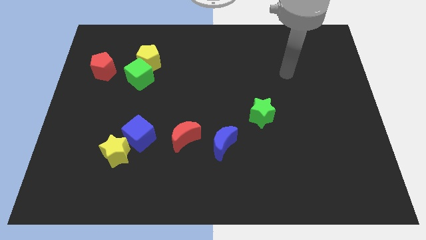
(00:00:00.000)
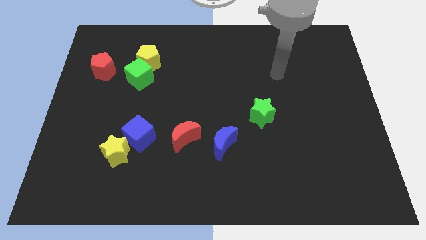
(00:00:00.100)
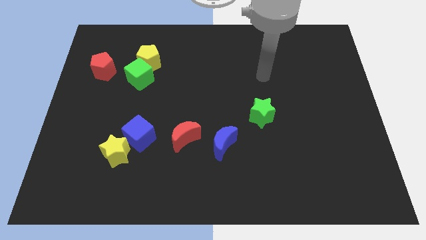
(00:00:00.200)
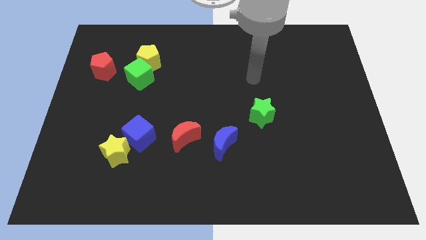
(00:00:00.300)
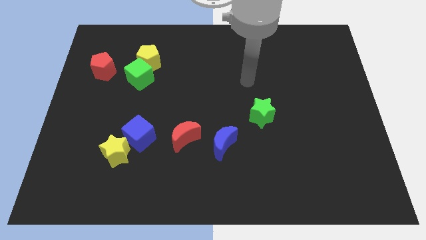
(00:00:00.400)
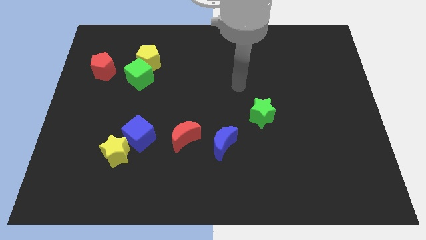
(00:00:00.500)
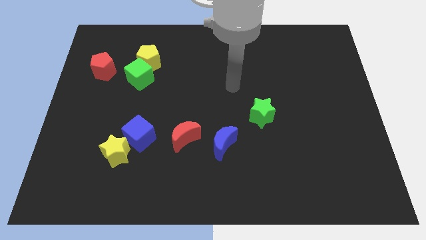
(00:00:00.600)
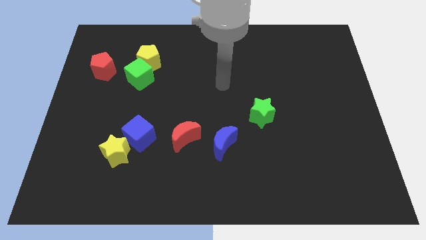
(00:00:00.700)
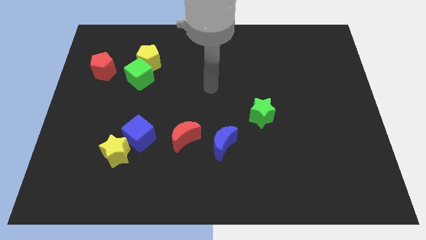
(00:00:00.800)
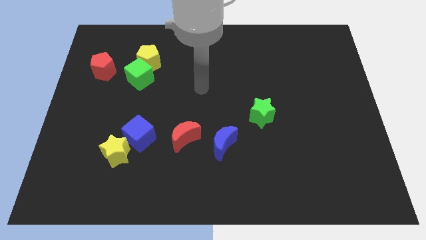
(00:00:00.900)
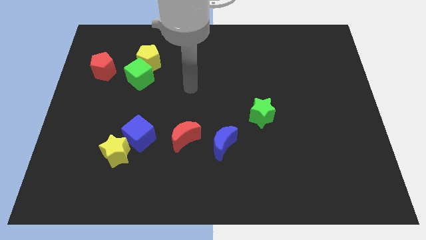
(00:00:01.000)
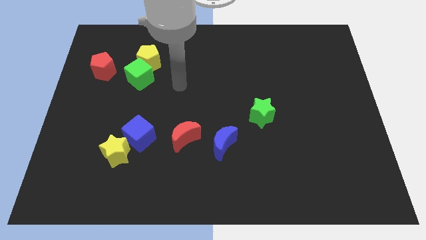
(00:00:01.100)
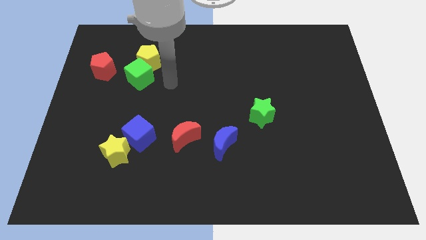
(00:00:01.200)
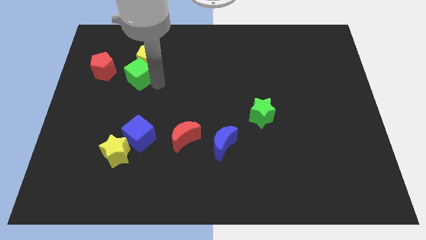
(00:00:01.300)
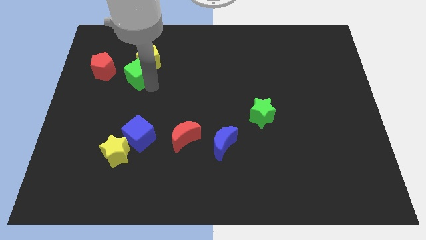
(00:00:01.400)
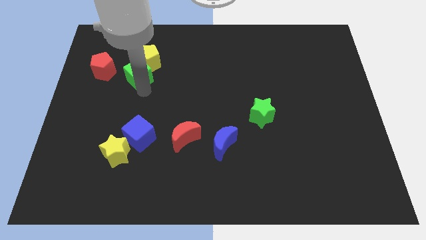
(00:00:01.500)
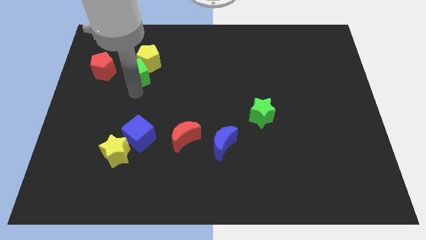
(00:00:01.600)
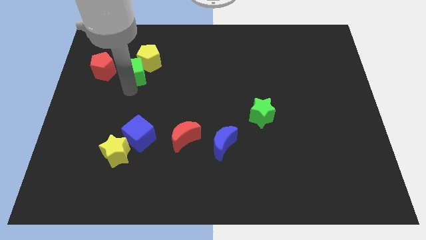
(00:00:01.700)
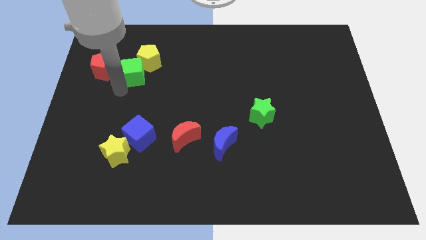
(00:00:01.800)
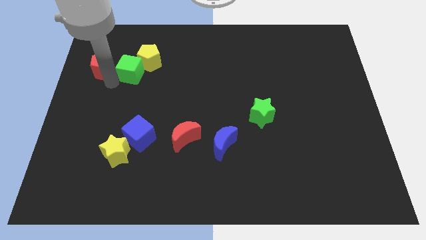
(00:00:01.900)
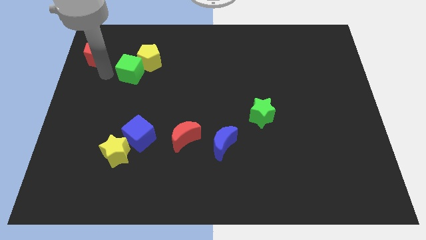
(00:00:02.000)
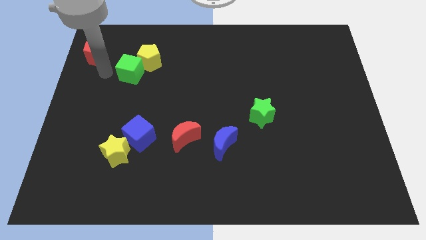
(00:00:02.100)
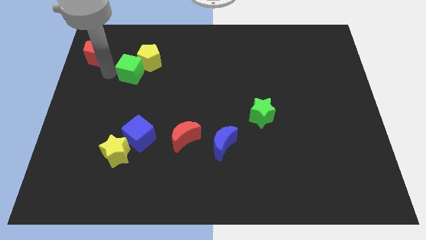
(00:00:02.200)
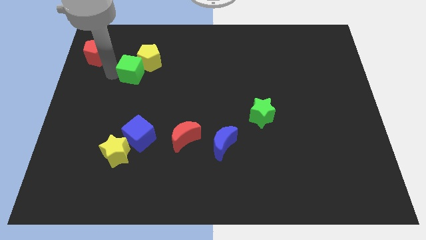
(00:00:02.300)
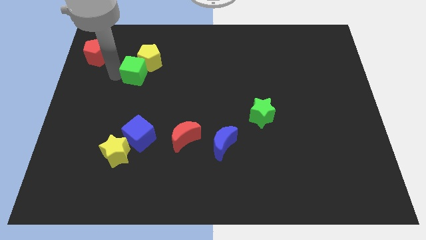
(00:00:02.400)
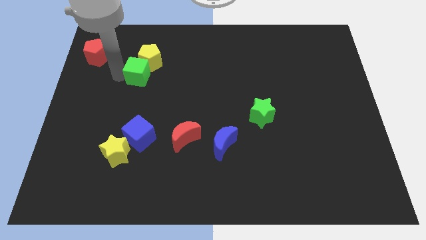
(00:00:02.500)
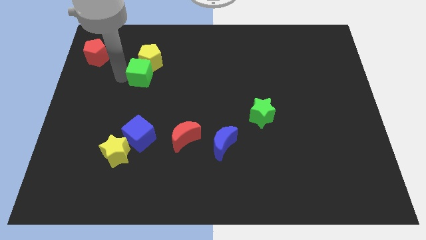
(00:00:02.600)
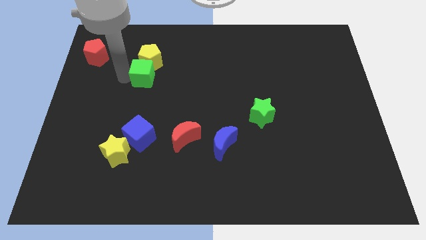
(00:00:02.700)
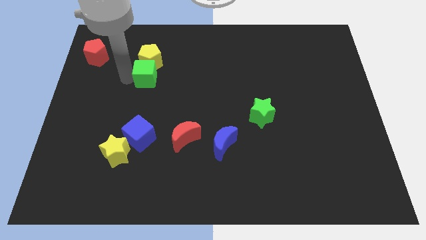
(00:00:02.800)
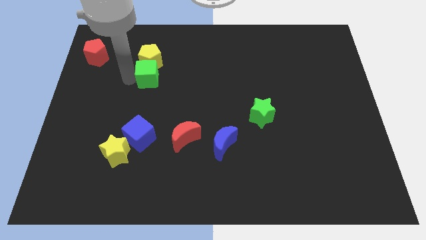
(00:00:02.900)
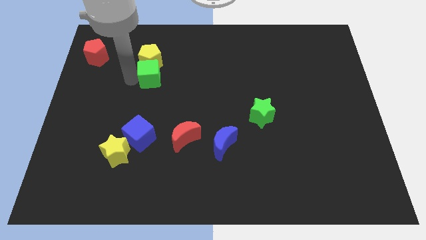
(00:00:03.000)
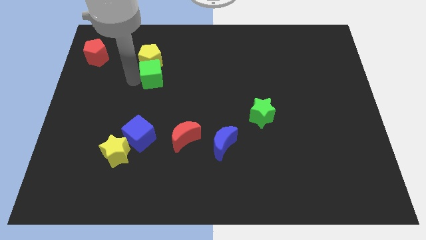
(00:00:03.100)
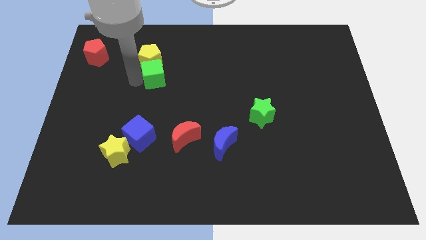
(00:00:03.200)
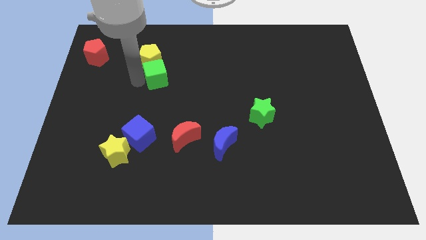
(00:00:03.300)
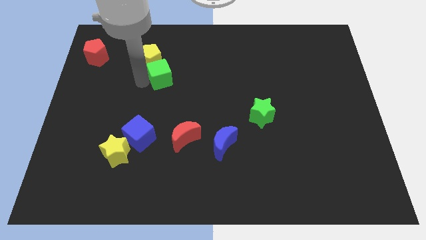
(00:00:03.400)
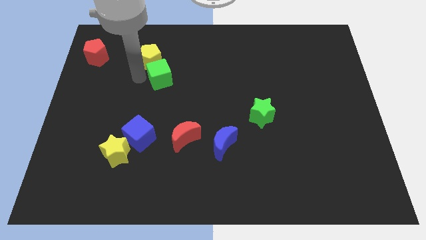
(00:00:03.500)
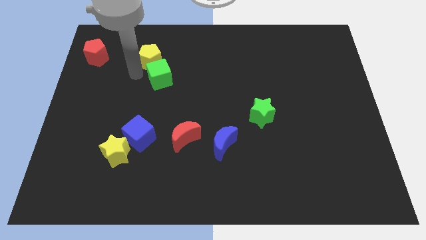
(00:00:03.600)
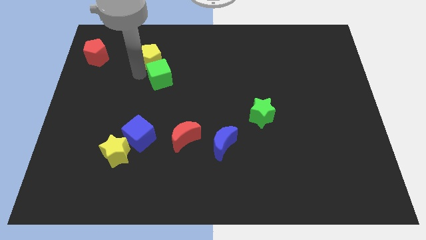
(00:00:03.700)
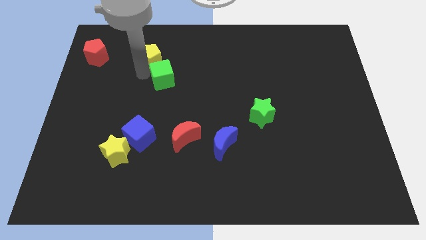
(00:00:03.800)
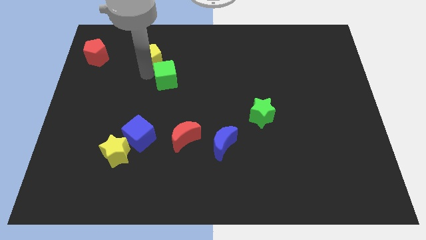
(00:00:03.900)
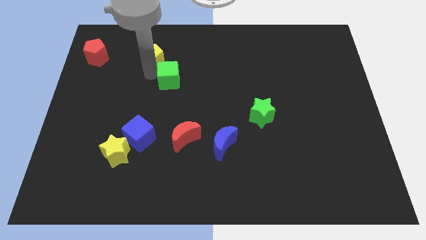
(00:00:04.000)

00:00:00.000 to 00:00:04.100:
move the green cube to the right a little bit

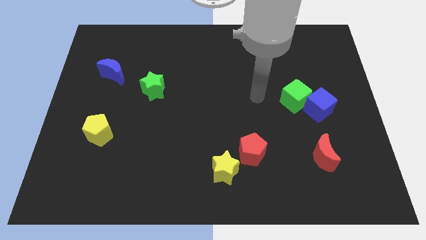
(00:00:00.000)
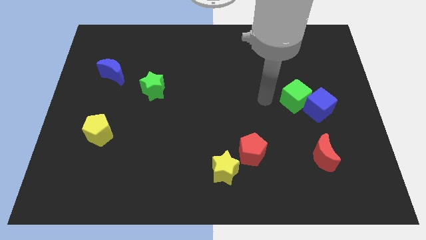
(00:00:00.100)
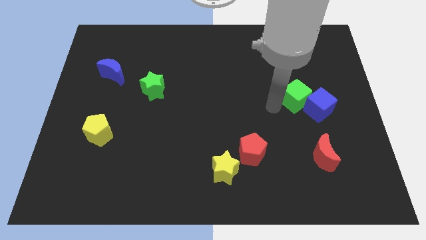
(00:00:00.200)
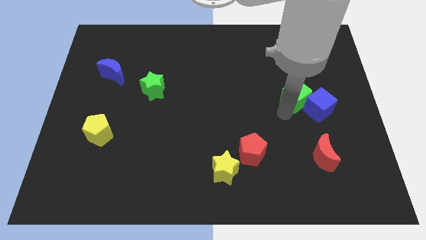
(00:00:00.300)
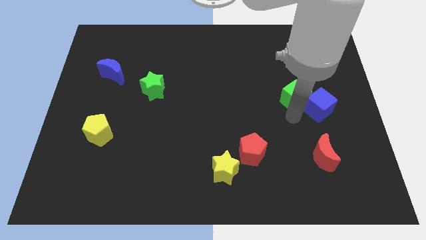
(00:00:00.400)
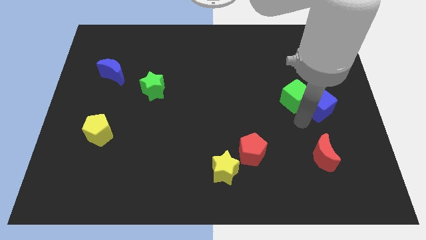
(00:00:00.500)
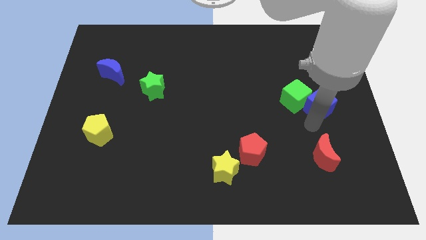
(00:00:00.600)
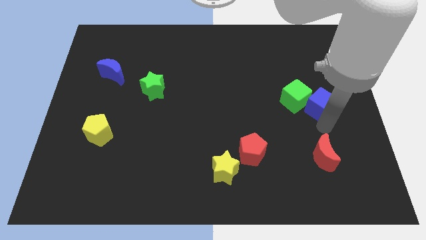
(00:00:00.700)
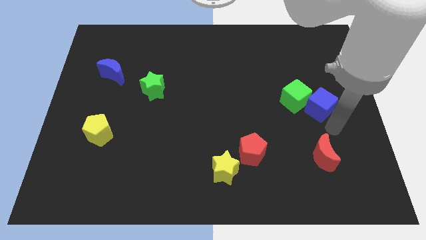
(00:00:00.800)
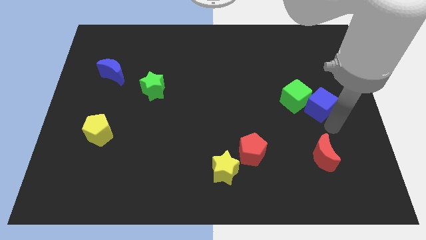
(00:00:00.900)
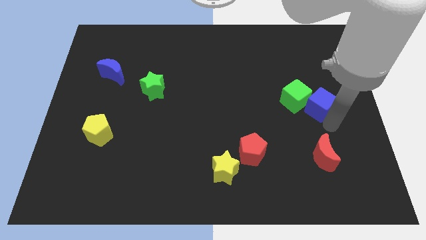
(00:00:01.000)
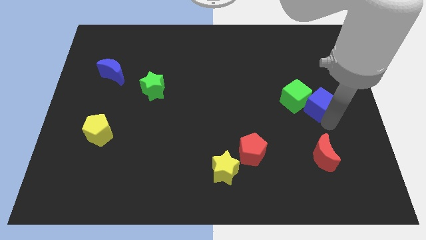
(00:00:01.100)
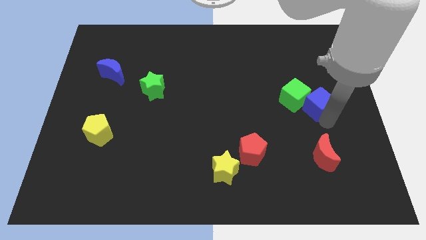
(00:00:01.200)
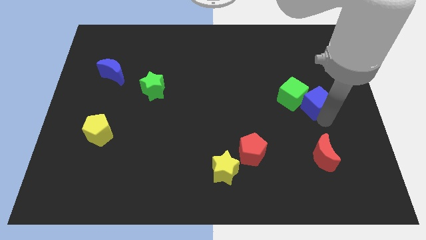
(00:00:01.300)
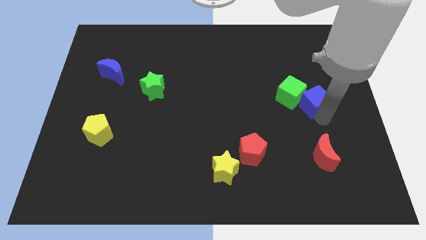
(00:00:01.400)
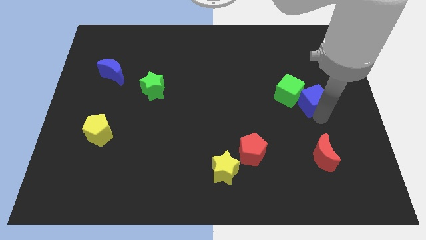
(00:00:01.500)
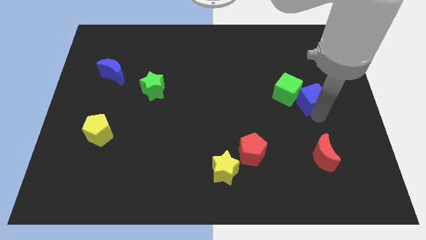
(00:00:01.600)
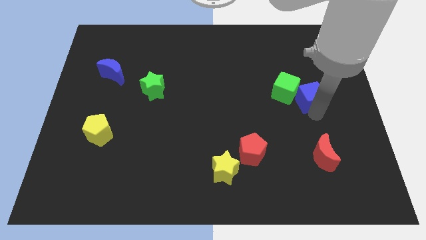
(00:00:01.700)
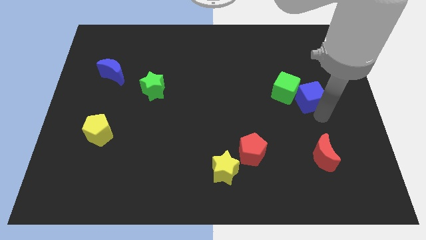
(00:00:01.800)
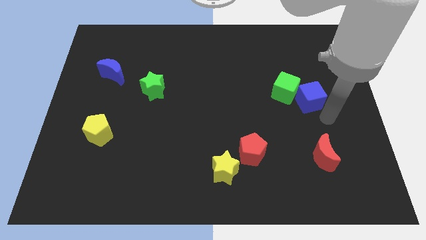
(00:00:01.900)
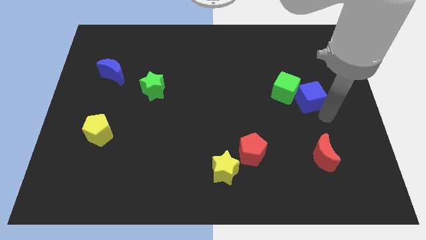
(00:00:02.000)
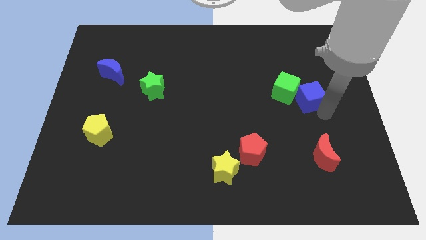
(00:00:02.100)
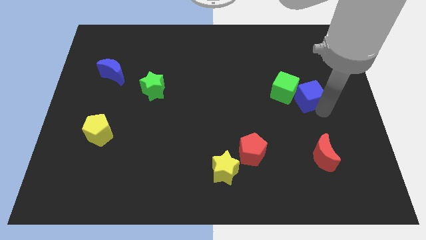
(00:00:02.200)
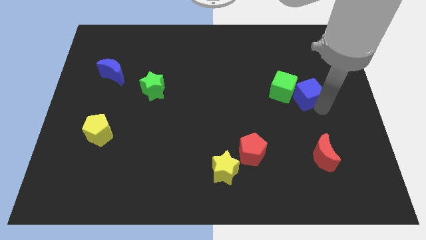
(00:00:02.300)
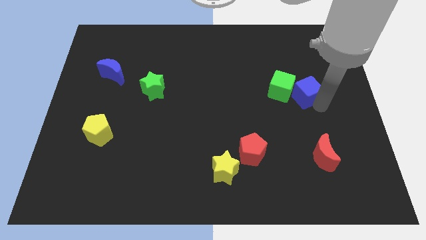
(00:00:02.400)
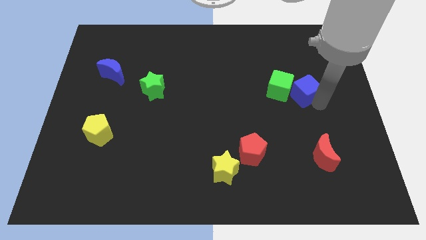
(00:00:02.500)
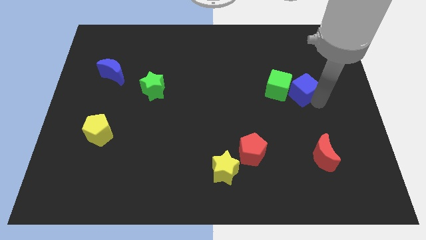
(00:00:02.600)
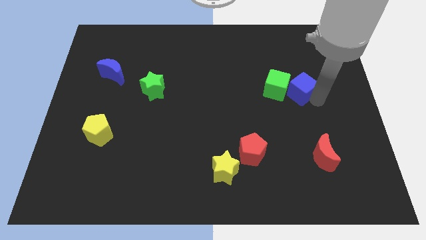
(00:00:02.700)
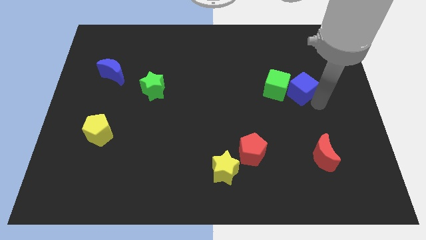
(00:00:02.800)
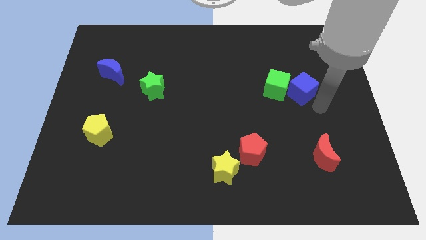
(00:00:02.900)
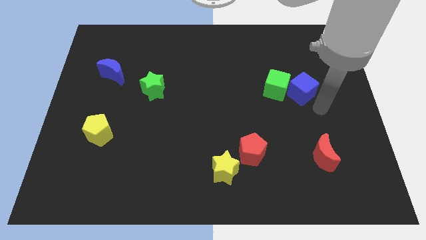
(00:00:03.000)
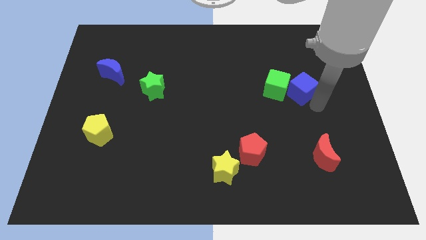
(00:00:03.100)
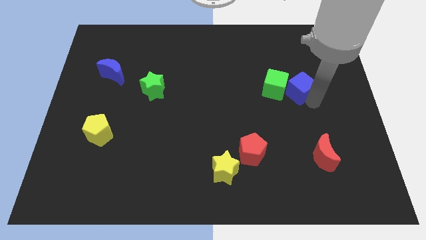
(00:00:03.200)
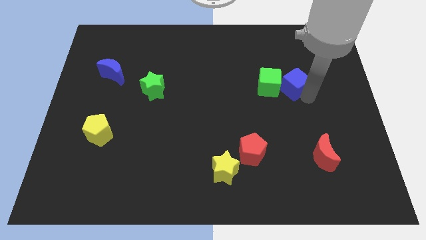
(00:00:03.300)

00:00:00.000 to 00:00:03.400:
move the blue cube up and to the left a little

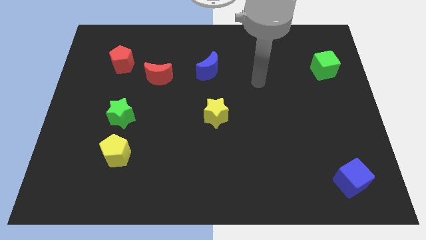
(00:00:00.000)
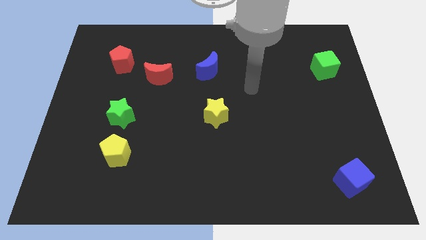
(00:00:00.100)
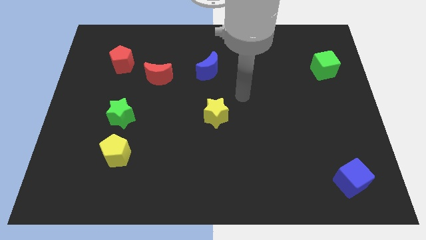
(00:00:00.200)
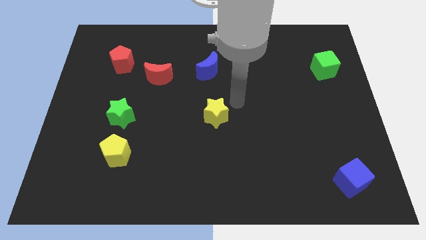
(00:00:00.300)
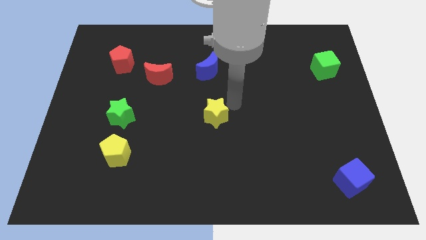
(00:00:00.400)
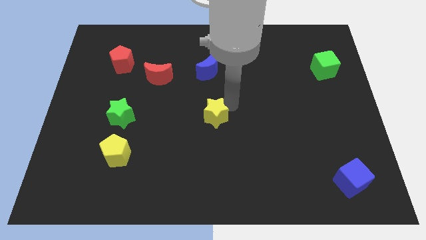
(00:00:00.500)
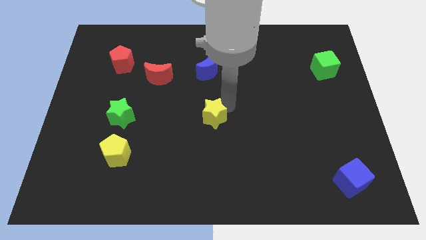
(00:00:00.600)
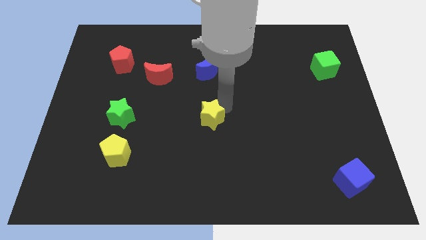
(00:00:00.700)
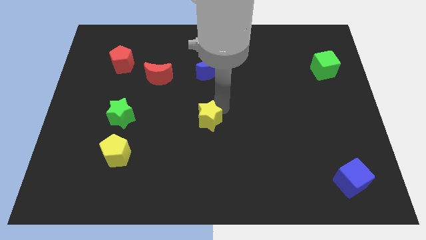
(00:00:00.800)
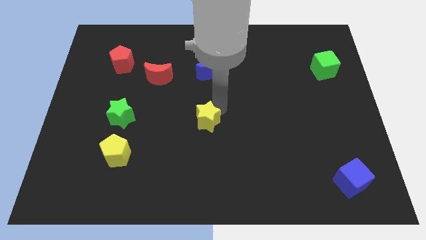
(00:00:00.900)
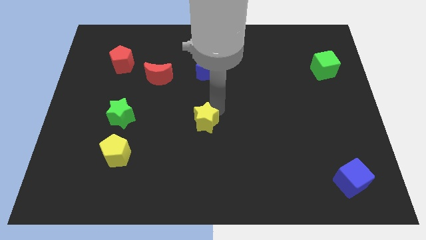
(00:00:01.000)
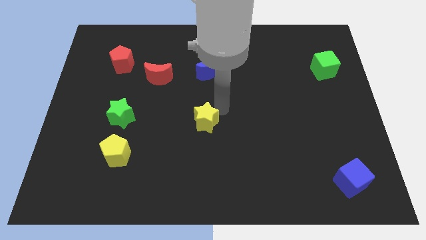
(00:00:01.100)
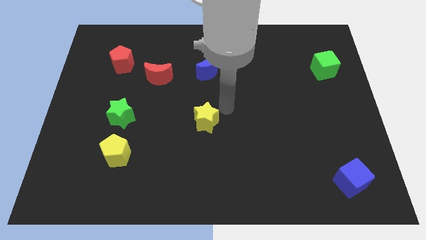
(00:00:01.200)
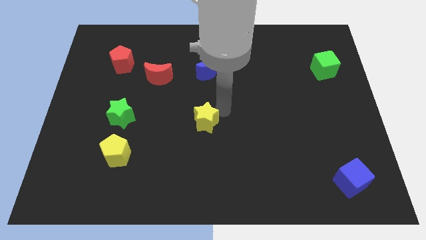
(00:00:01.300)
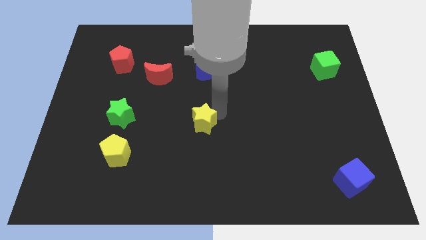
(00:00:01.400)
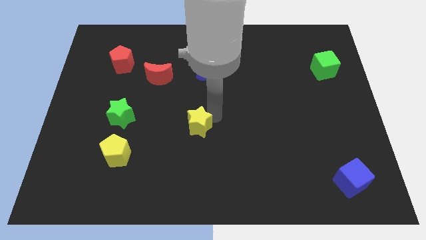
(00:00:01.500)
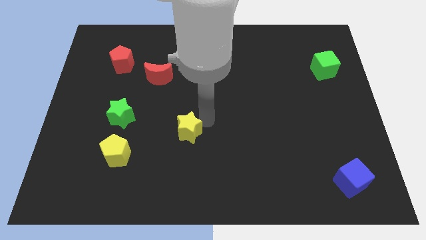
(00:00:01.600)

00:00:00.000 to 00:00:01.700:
slide the yellow star downwards and to the left diagonally a bit
